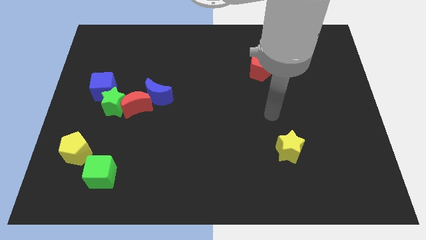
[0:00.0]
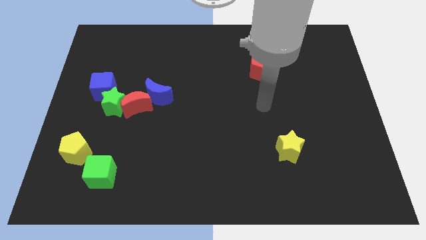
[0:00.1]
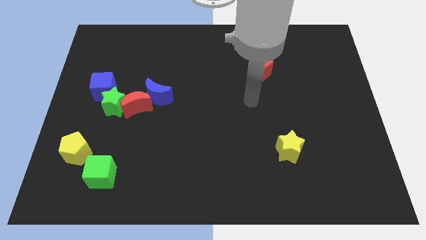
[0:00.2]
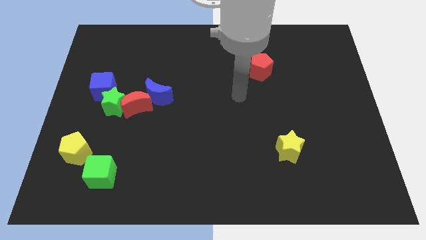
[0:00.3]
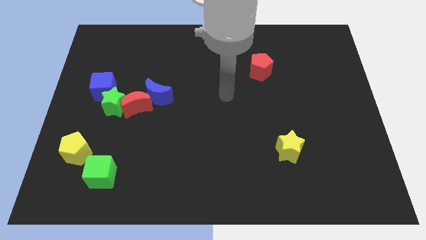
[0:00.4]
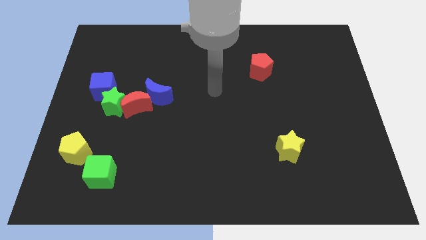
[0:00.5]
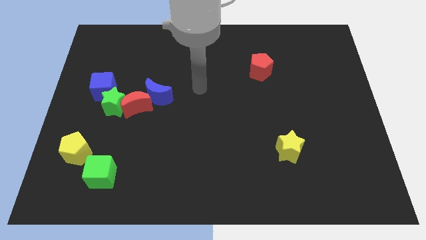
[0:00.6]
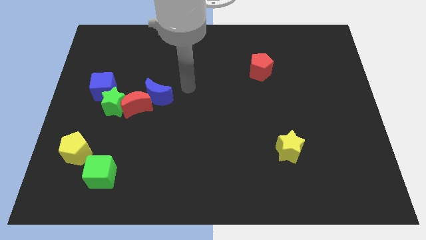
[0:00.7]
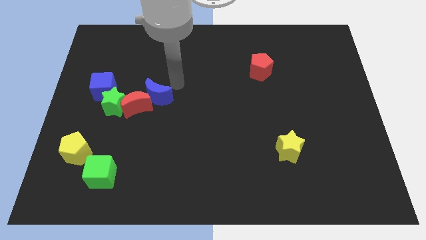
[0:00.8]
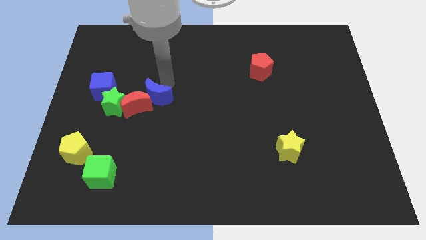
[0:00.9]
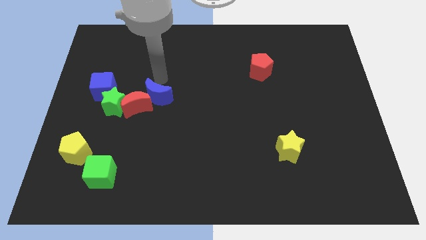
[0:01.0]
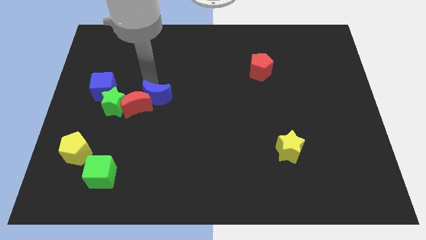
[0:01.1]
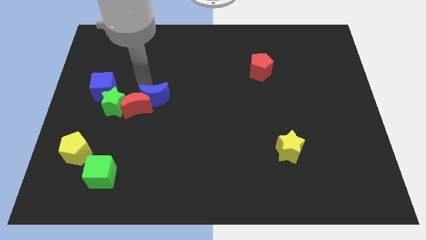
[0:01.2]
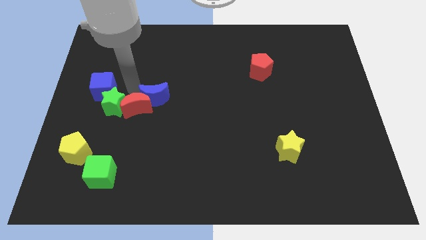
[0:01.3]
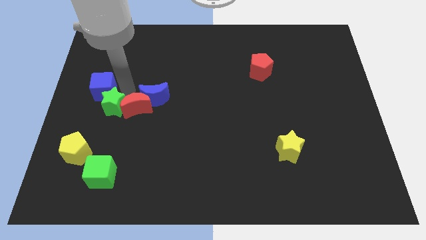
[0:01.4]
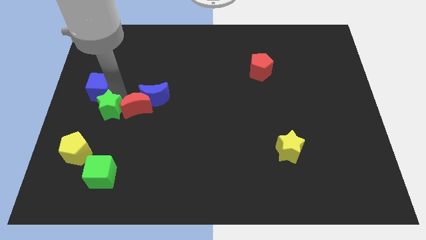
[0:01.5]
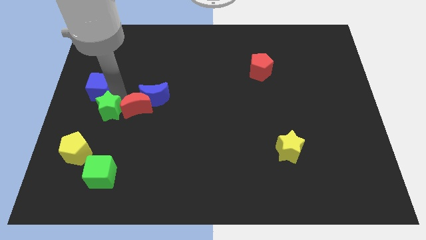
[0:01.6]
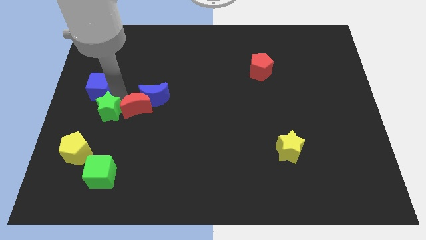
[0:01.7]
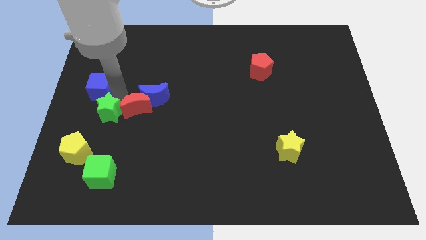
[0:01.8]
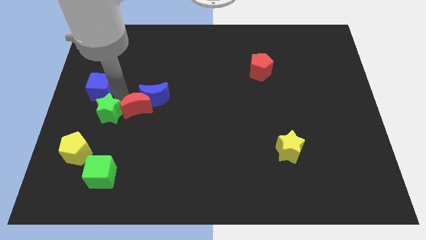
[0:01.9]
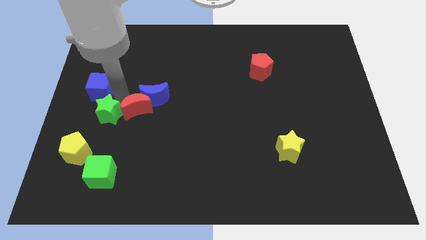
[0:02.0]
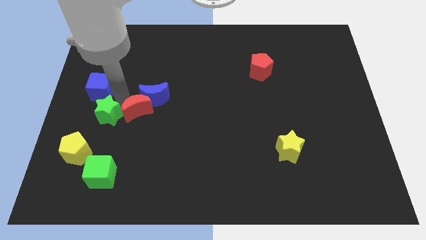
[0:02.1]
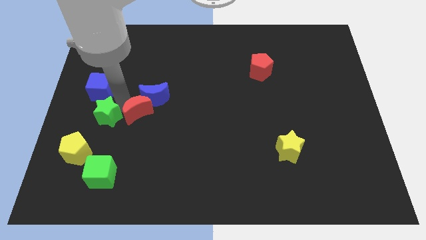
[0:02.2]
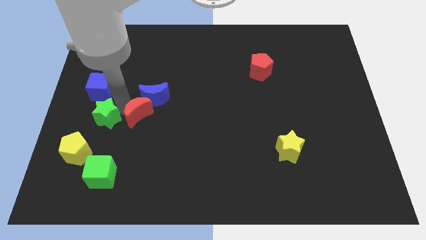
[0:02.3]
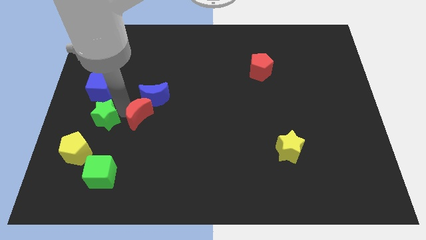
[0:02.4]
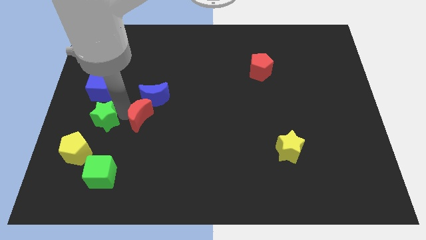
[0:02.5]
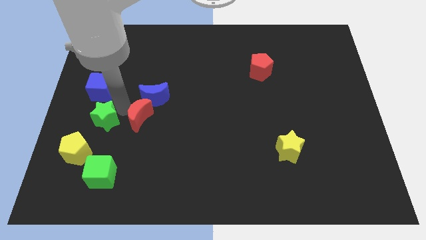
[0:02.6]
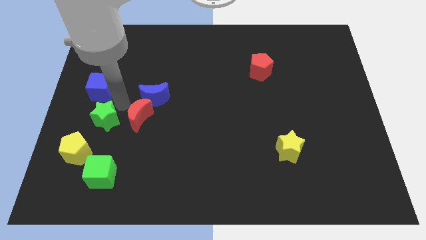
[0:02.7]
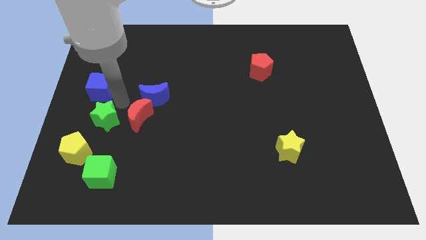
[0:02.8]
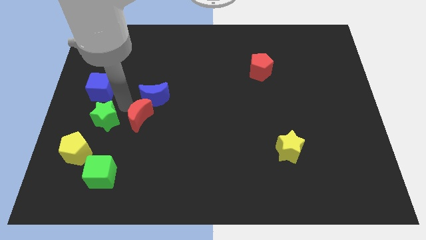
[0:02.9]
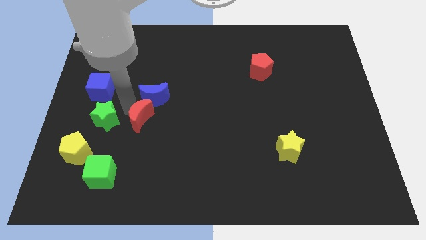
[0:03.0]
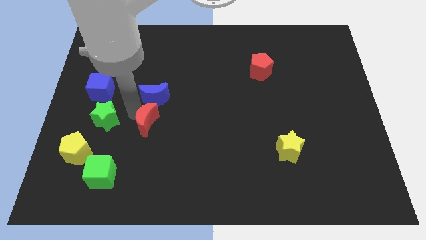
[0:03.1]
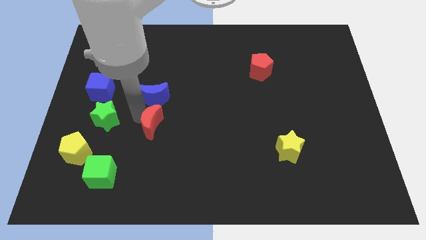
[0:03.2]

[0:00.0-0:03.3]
pull the red moon apart from the green star, blue moon, and blue cube

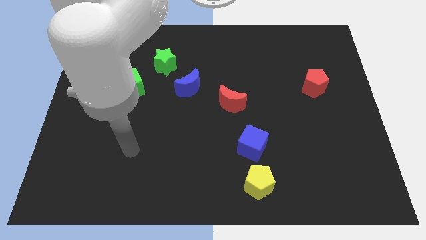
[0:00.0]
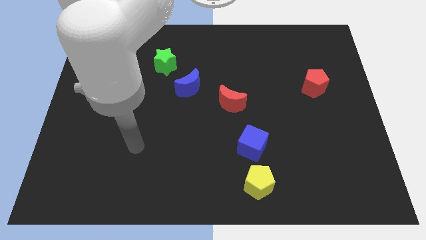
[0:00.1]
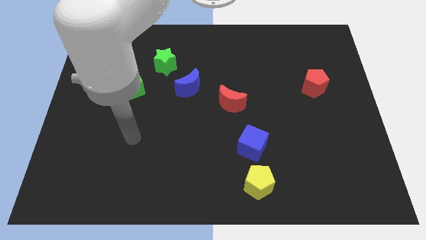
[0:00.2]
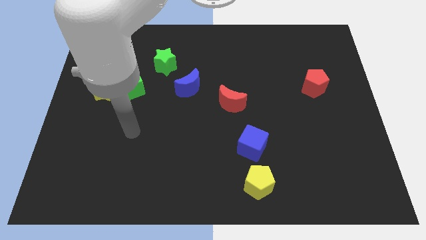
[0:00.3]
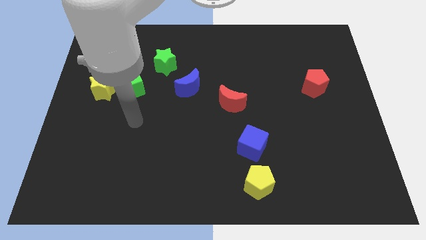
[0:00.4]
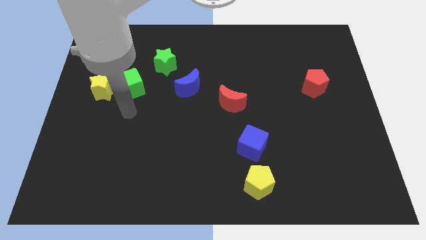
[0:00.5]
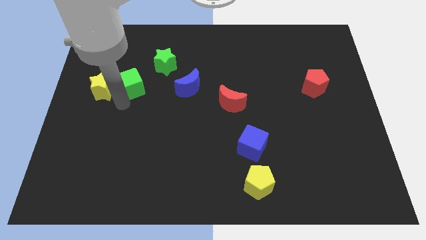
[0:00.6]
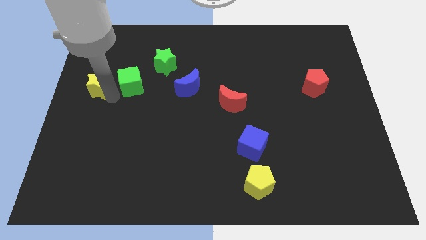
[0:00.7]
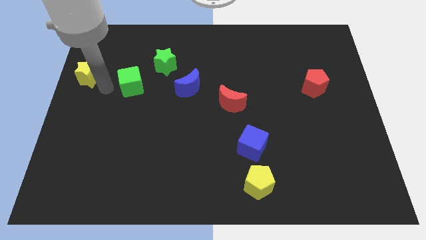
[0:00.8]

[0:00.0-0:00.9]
pull the green cube apart from the yellow star

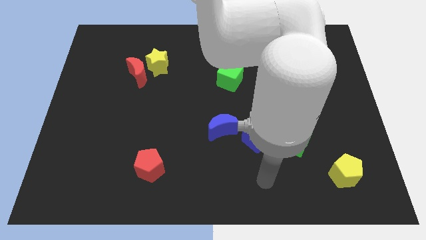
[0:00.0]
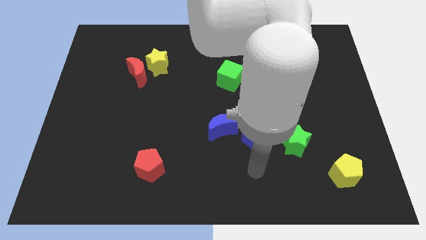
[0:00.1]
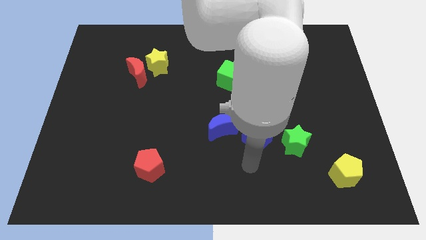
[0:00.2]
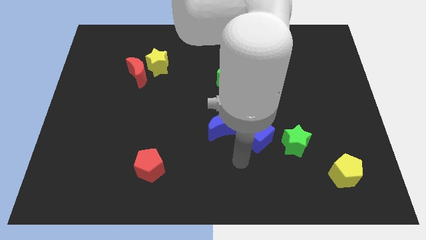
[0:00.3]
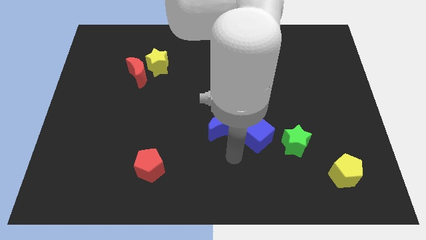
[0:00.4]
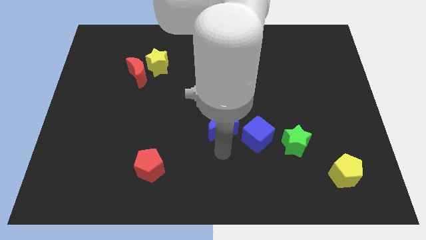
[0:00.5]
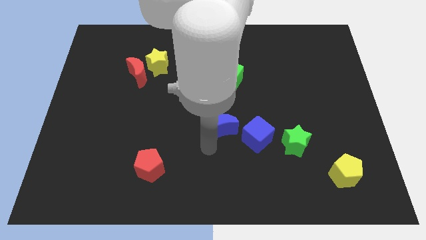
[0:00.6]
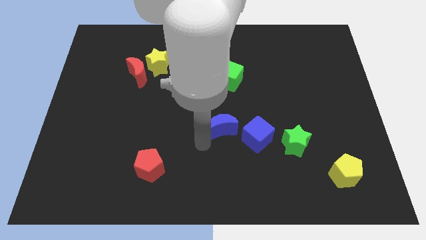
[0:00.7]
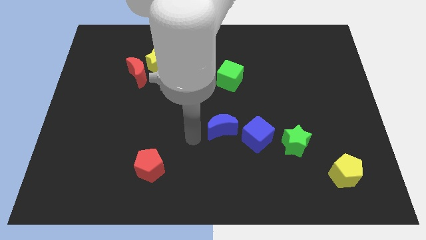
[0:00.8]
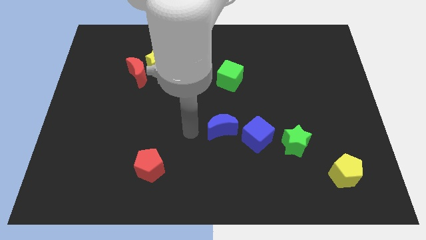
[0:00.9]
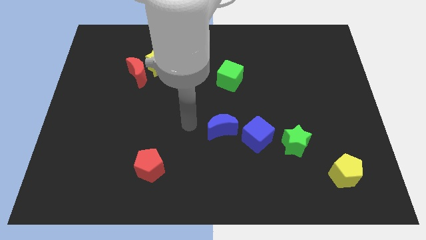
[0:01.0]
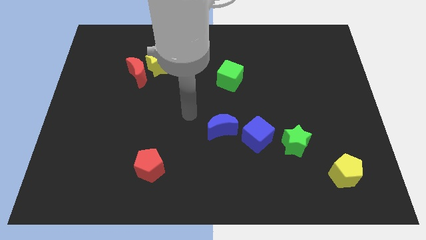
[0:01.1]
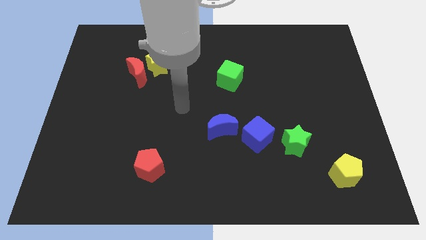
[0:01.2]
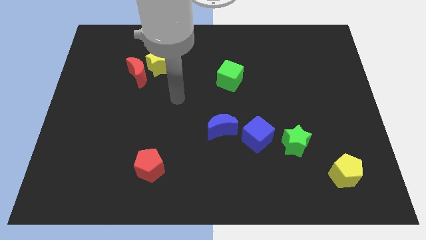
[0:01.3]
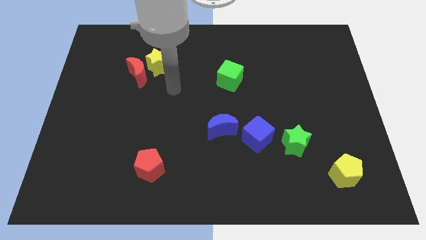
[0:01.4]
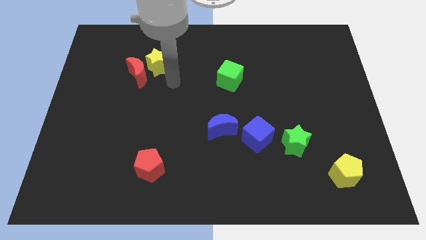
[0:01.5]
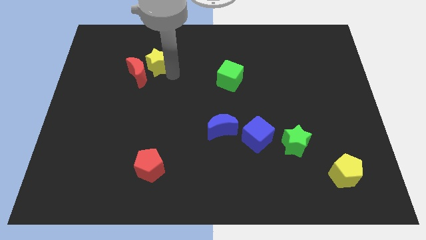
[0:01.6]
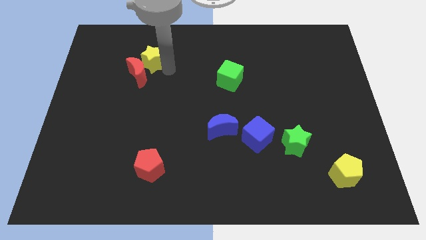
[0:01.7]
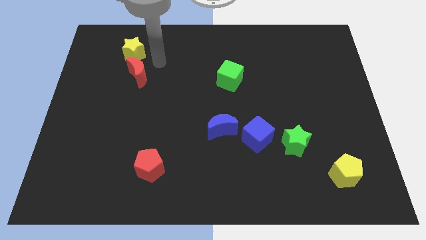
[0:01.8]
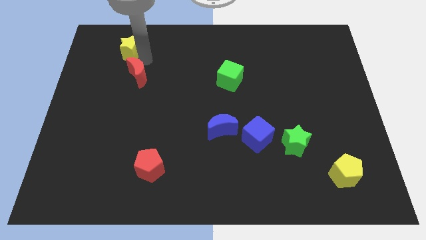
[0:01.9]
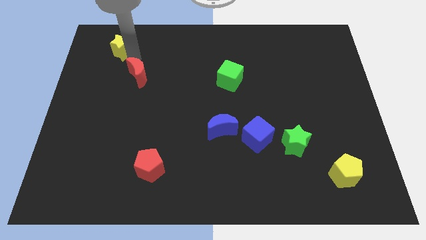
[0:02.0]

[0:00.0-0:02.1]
move the red moon away from the yellow star

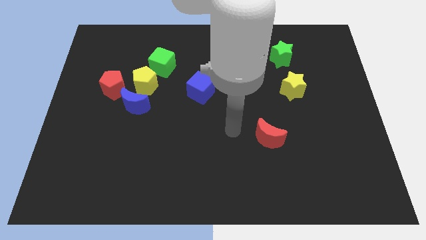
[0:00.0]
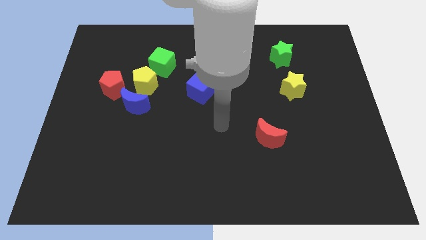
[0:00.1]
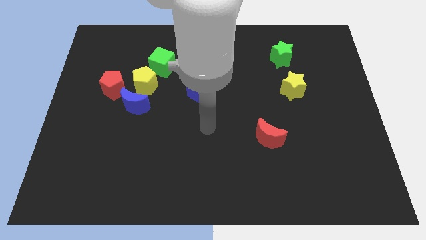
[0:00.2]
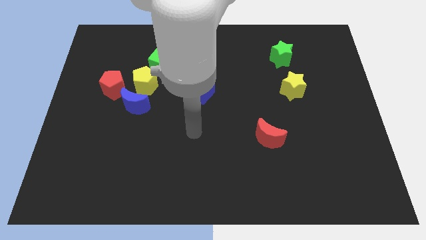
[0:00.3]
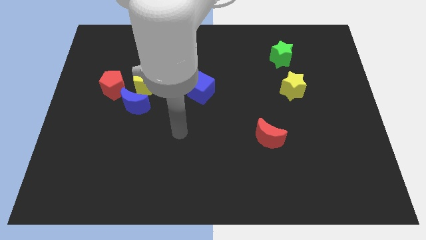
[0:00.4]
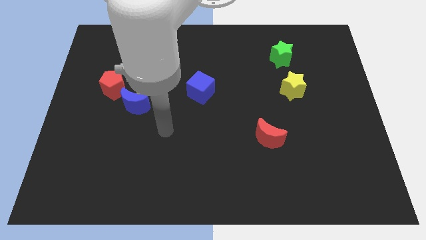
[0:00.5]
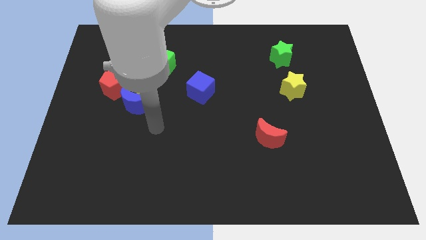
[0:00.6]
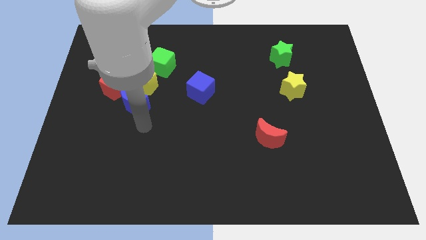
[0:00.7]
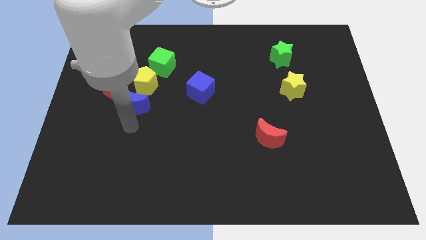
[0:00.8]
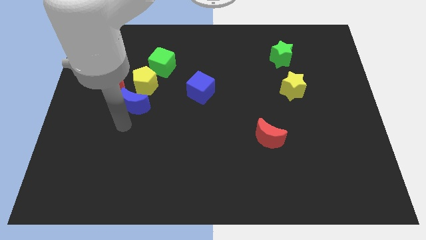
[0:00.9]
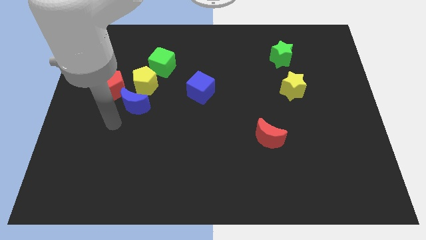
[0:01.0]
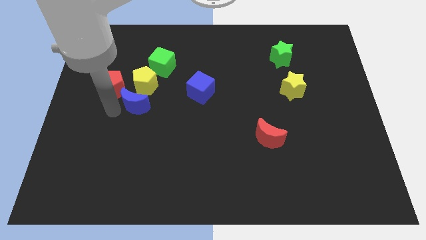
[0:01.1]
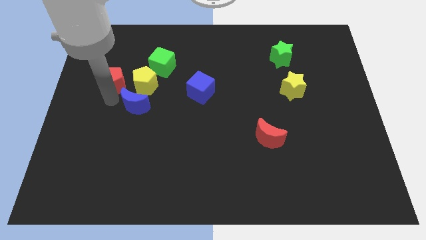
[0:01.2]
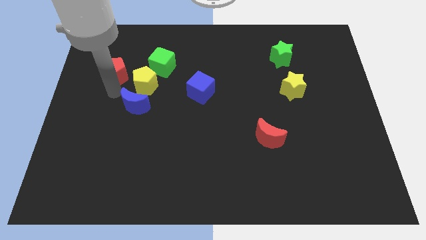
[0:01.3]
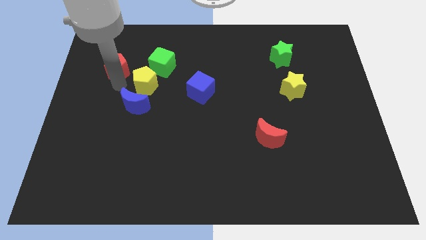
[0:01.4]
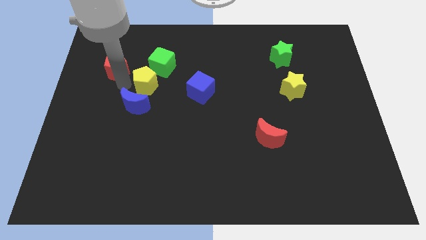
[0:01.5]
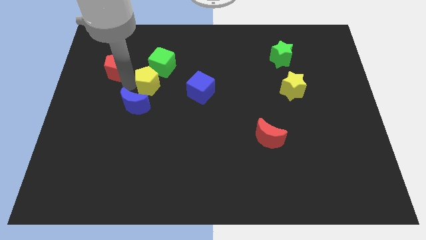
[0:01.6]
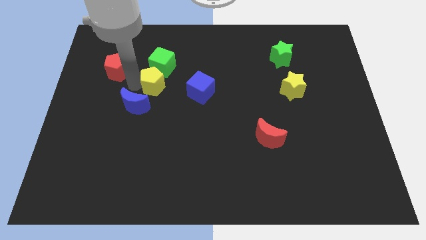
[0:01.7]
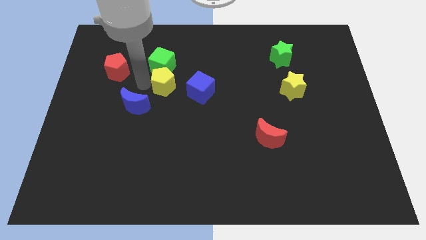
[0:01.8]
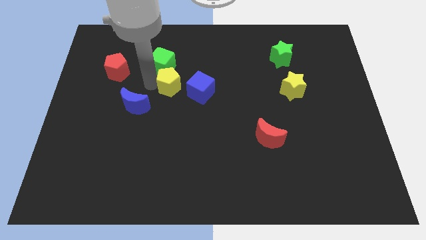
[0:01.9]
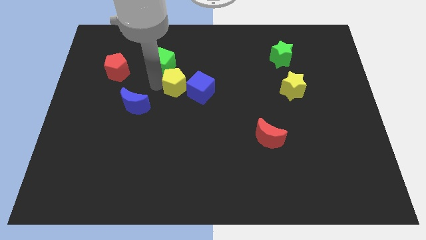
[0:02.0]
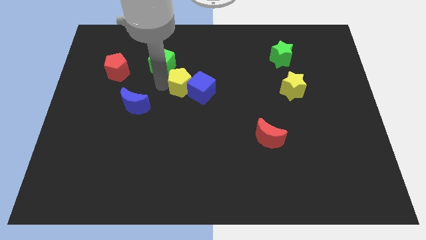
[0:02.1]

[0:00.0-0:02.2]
pull the yellow pentagon apart from the group

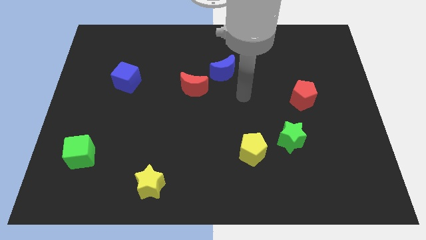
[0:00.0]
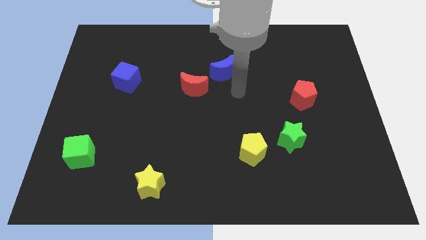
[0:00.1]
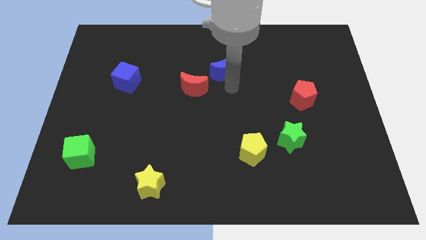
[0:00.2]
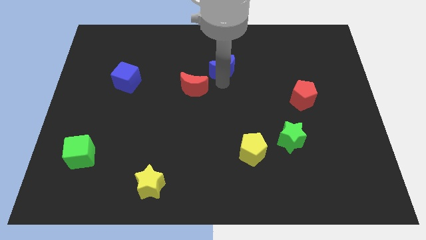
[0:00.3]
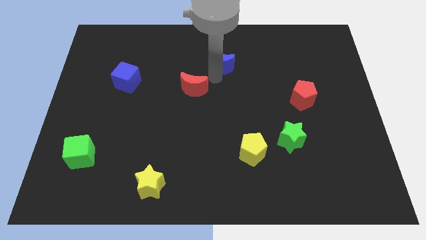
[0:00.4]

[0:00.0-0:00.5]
pull the red moon apart from the blue moon

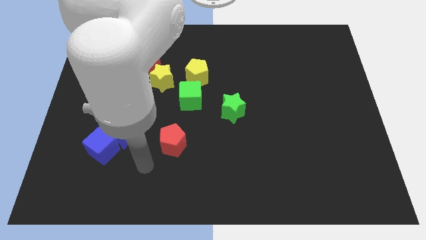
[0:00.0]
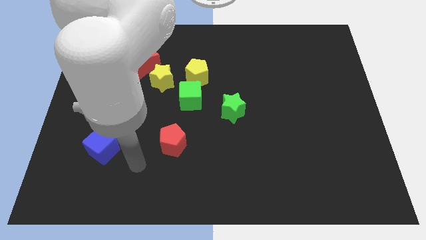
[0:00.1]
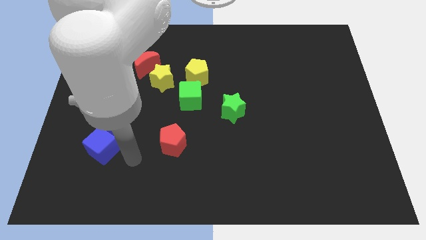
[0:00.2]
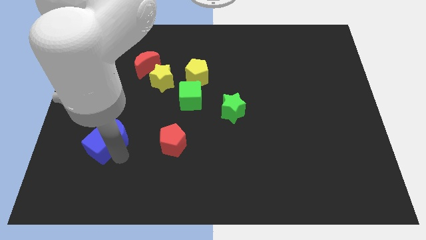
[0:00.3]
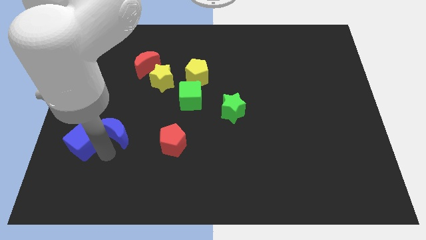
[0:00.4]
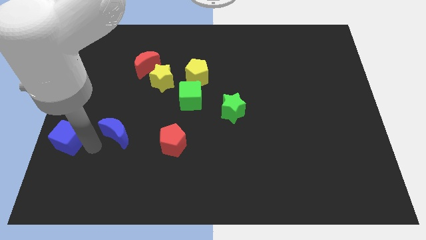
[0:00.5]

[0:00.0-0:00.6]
separate the blue moon from the blue cube
